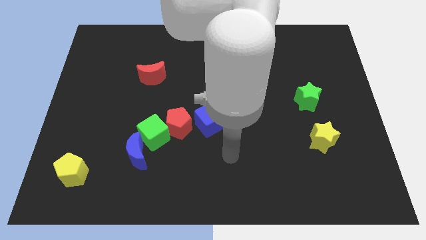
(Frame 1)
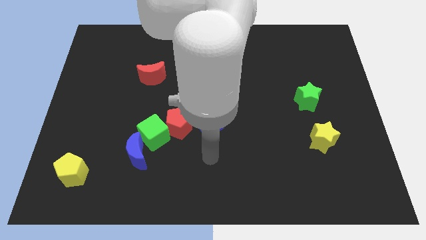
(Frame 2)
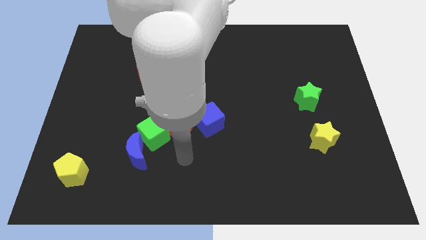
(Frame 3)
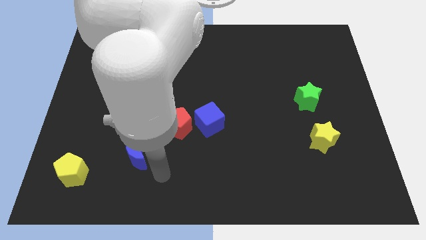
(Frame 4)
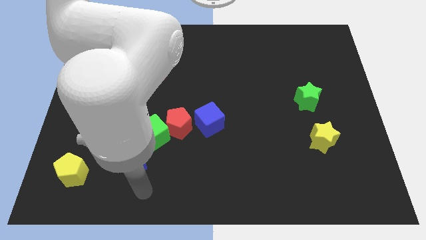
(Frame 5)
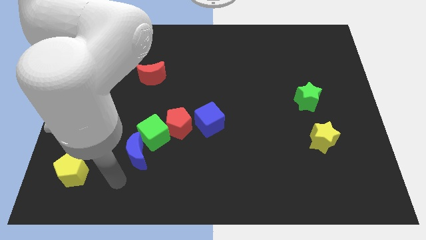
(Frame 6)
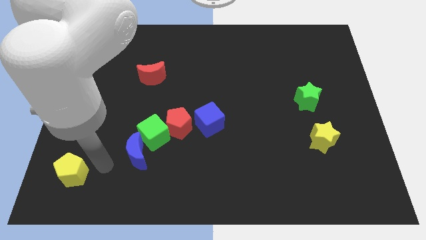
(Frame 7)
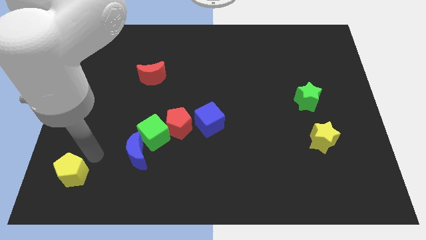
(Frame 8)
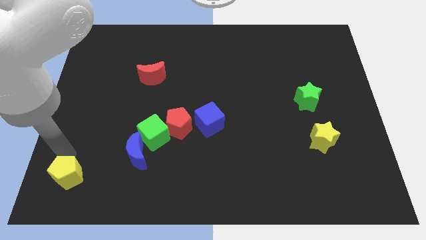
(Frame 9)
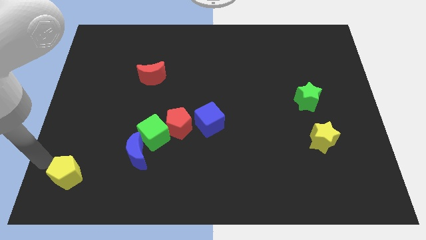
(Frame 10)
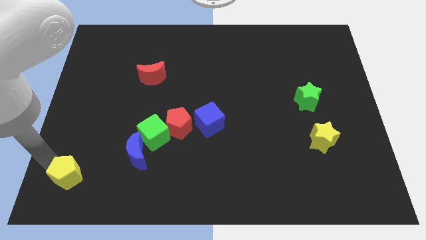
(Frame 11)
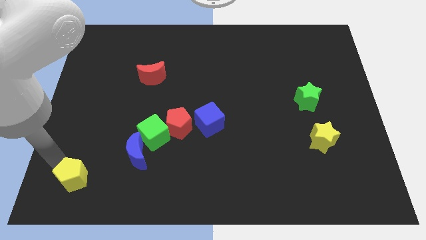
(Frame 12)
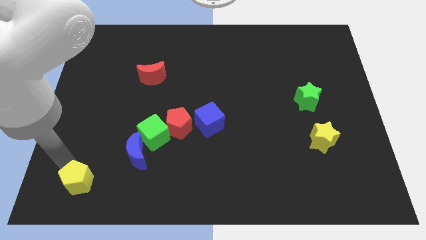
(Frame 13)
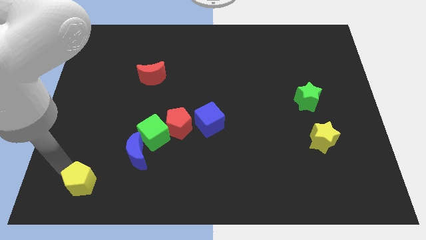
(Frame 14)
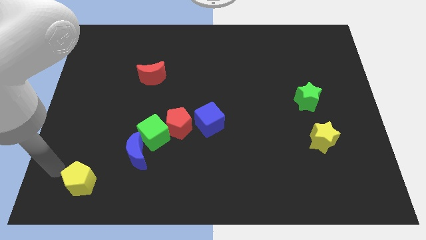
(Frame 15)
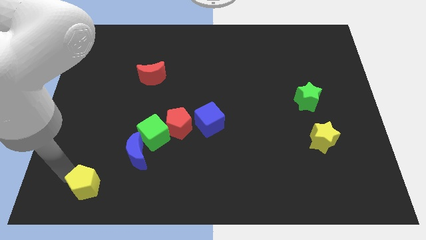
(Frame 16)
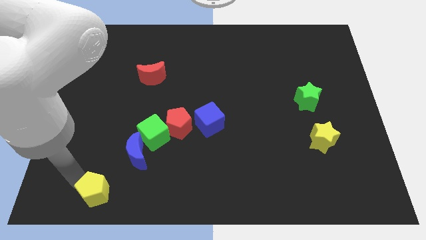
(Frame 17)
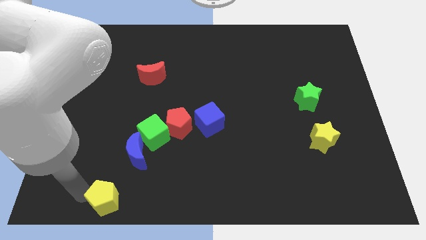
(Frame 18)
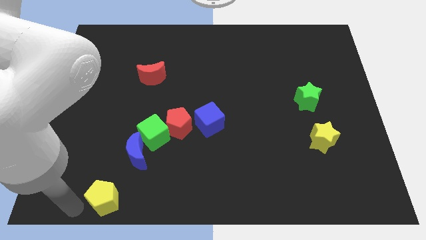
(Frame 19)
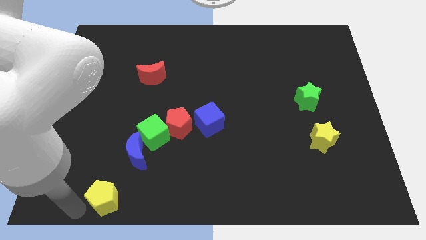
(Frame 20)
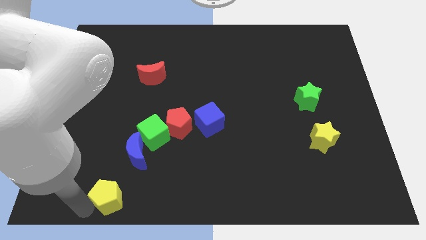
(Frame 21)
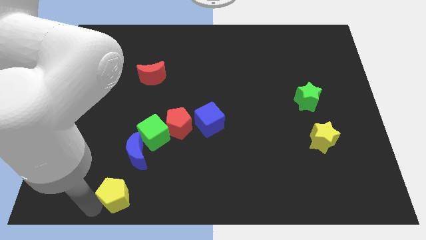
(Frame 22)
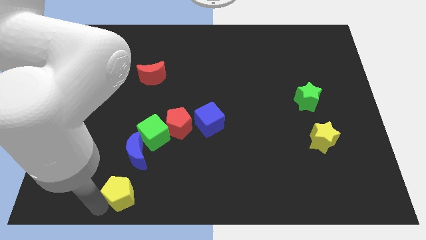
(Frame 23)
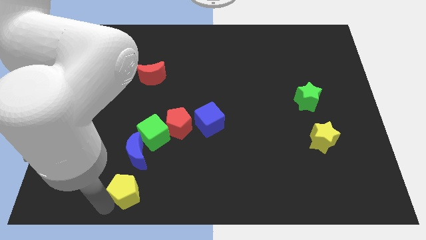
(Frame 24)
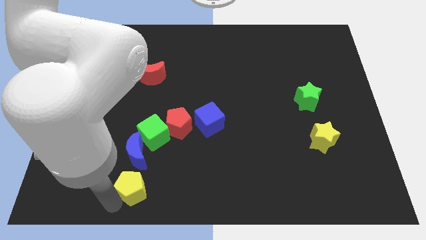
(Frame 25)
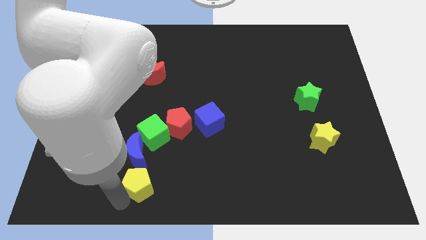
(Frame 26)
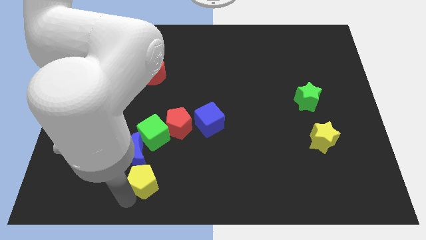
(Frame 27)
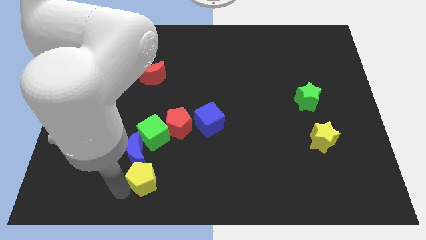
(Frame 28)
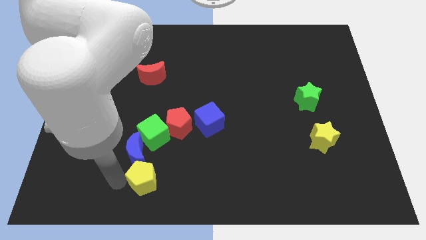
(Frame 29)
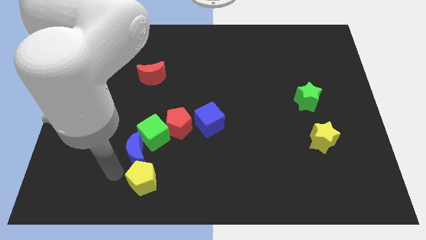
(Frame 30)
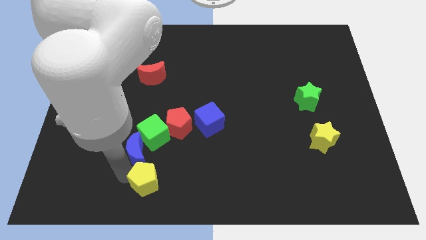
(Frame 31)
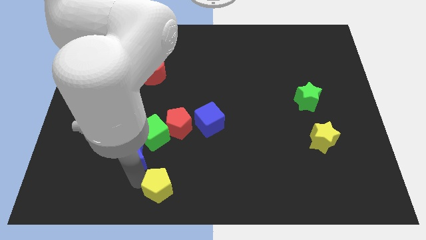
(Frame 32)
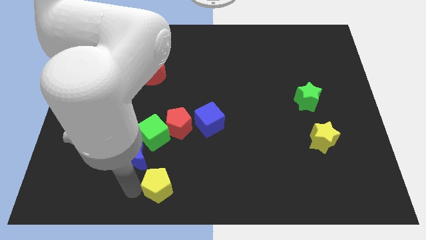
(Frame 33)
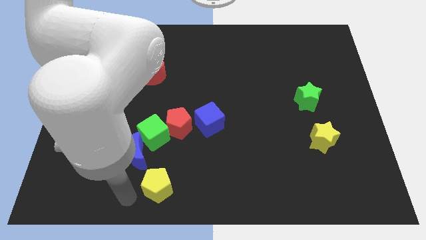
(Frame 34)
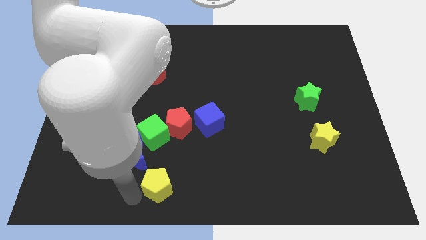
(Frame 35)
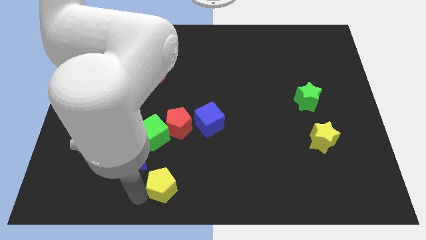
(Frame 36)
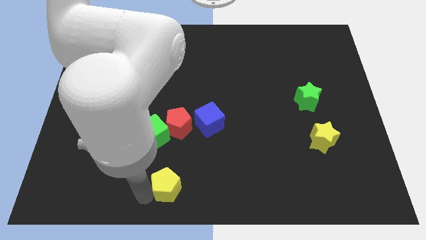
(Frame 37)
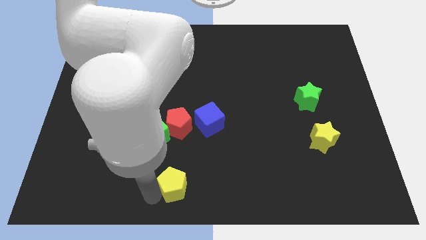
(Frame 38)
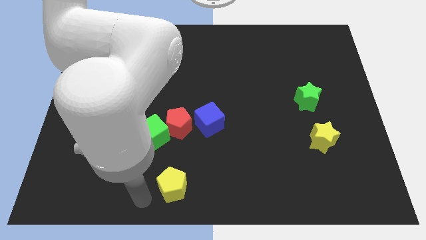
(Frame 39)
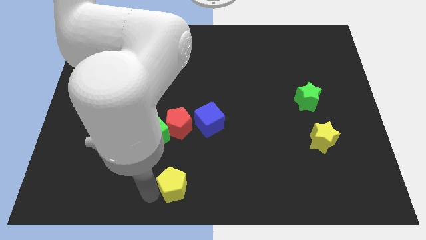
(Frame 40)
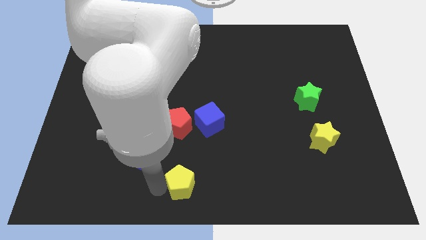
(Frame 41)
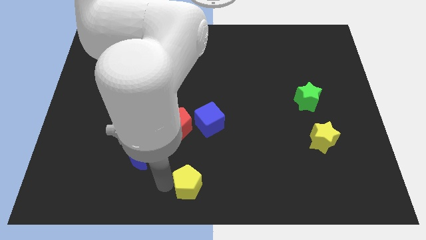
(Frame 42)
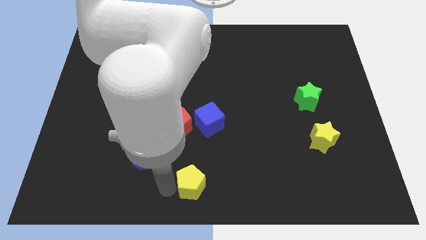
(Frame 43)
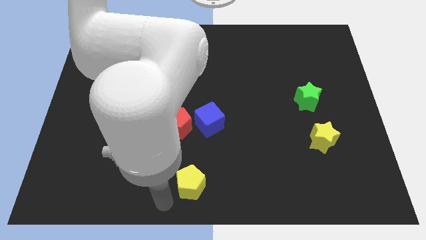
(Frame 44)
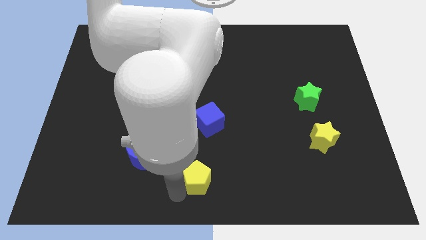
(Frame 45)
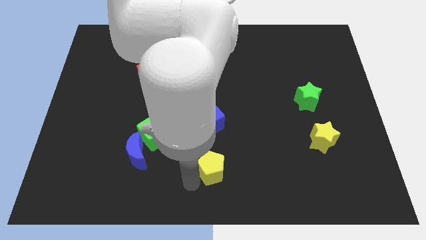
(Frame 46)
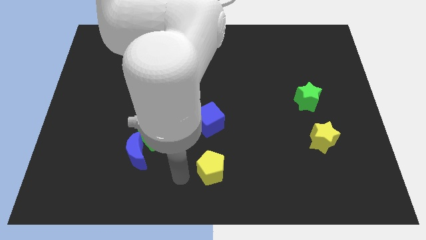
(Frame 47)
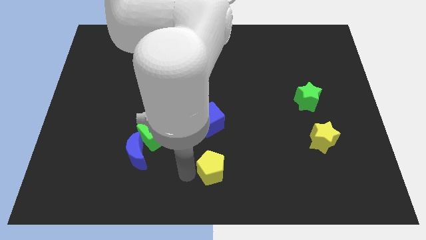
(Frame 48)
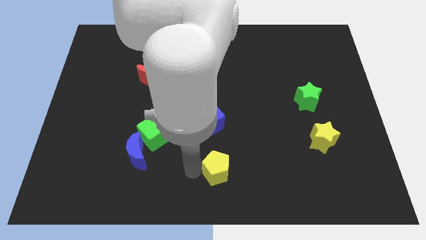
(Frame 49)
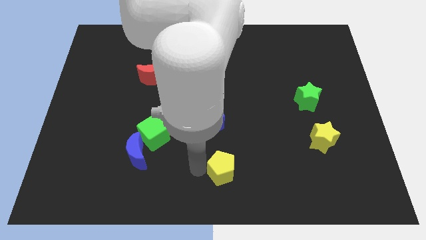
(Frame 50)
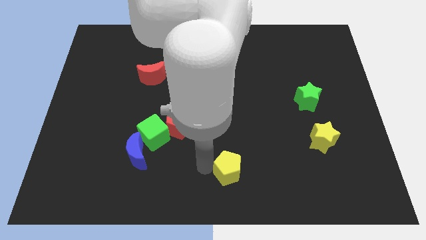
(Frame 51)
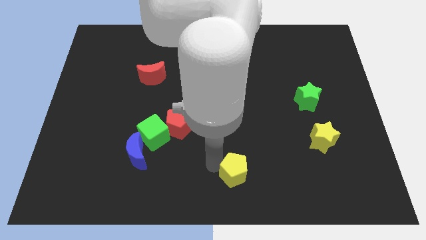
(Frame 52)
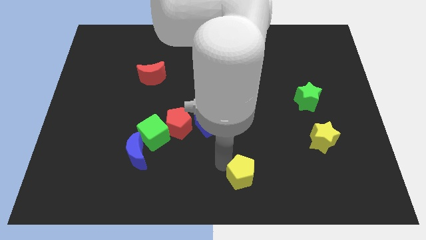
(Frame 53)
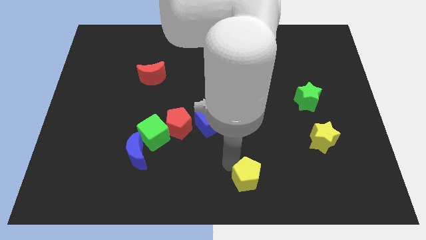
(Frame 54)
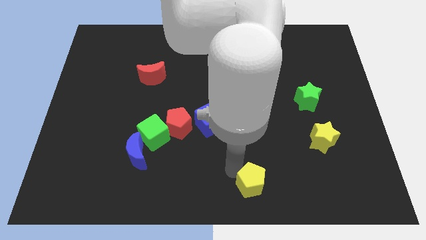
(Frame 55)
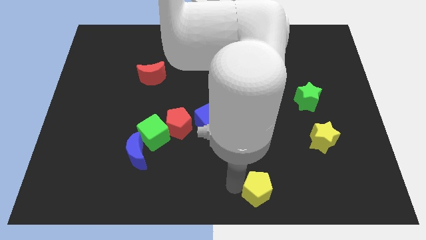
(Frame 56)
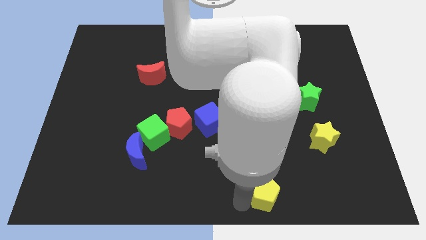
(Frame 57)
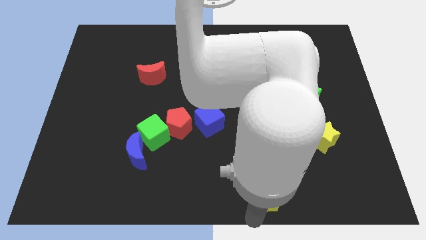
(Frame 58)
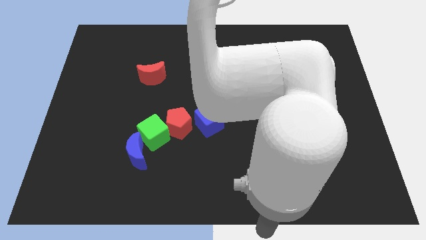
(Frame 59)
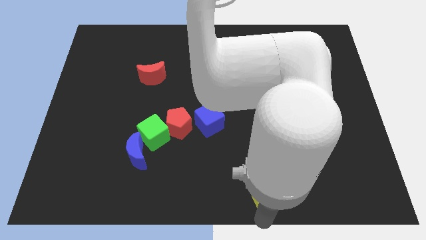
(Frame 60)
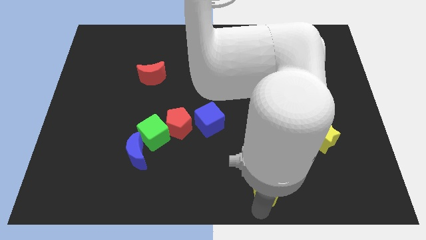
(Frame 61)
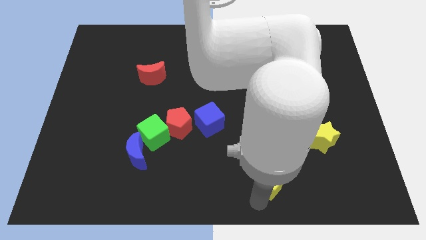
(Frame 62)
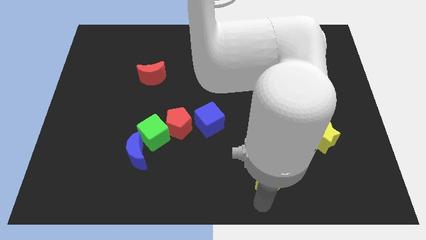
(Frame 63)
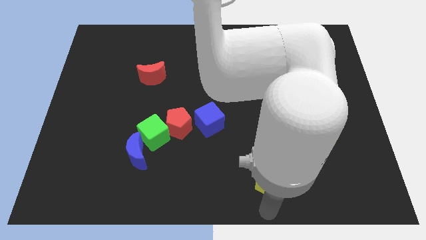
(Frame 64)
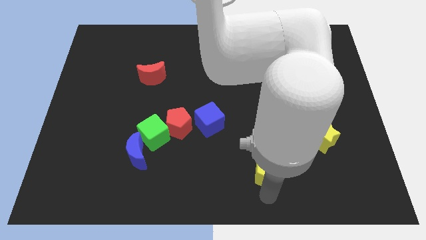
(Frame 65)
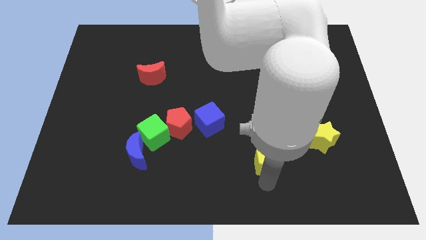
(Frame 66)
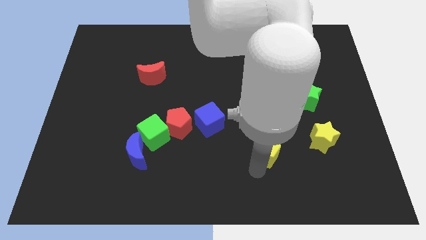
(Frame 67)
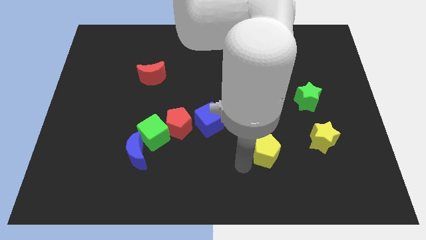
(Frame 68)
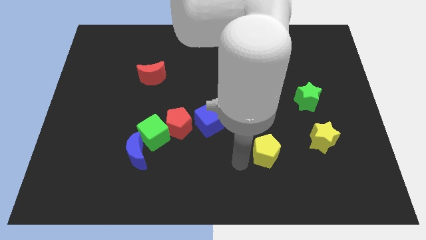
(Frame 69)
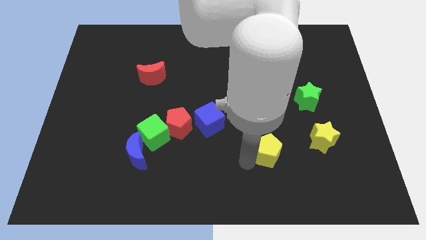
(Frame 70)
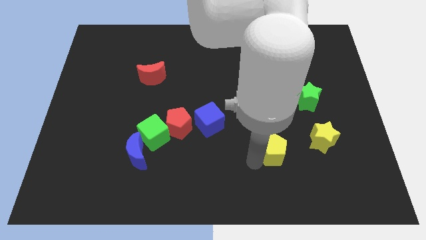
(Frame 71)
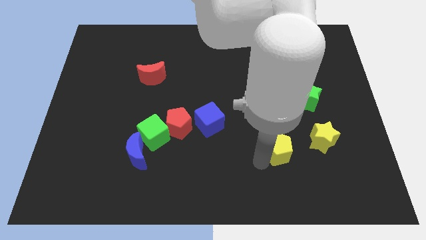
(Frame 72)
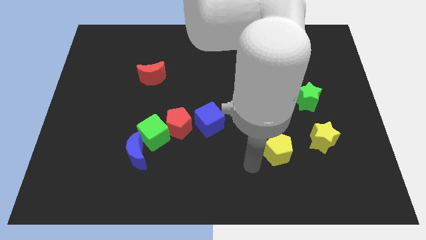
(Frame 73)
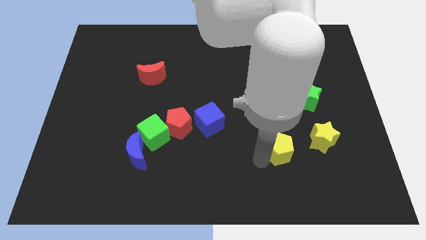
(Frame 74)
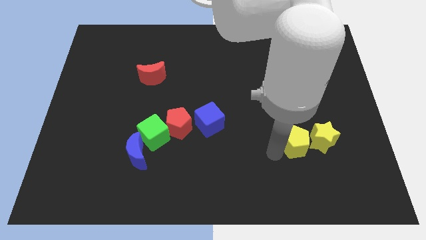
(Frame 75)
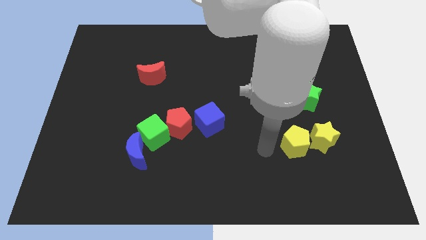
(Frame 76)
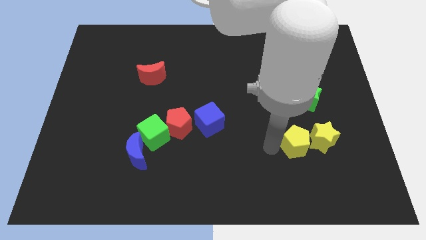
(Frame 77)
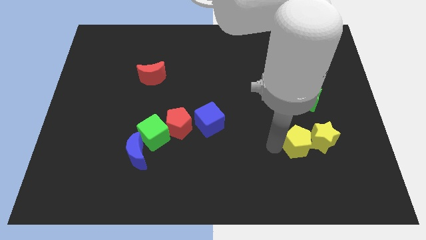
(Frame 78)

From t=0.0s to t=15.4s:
move the yellow pentagon close to the yellow star
